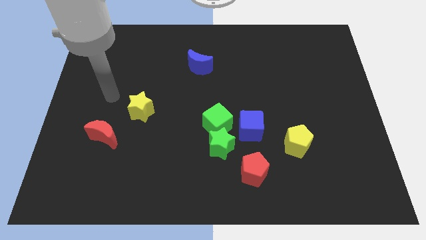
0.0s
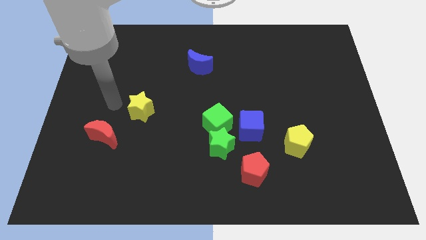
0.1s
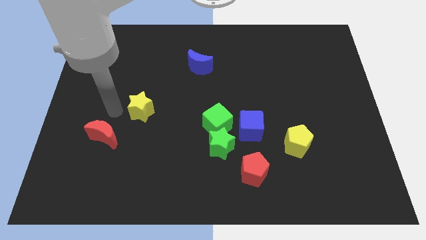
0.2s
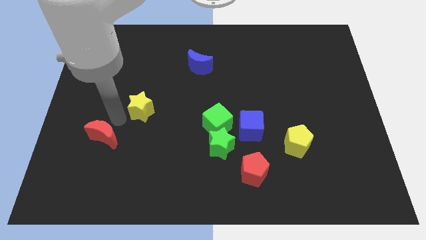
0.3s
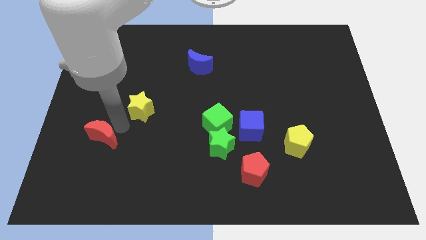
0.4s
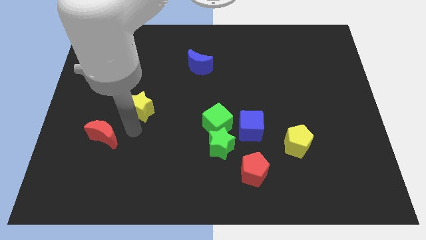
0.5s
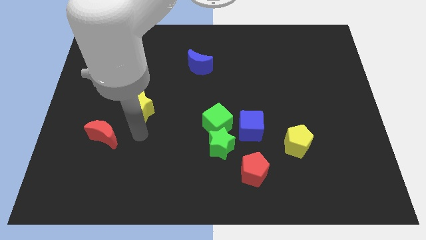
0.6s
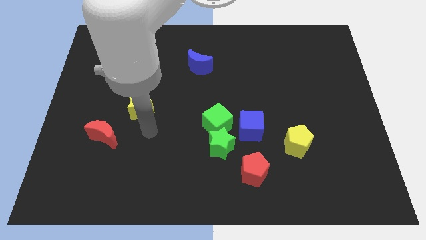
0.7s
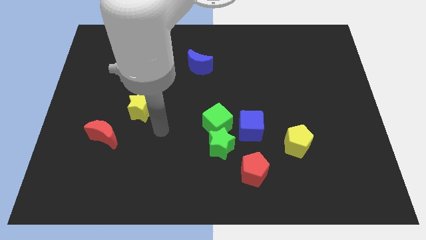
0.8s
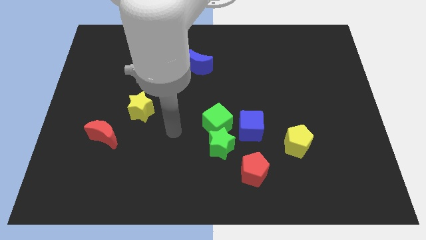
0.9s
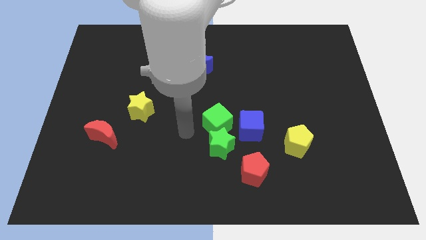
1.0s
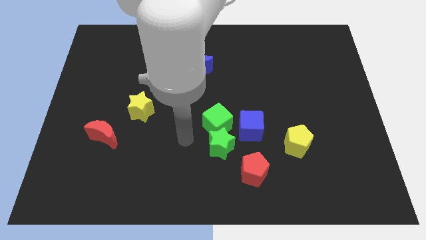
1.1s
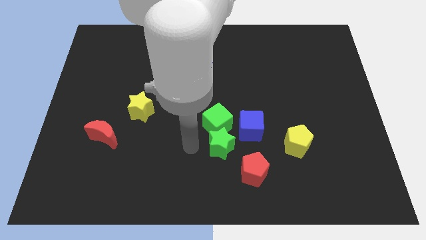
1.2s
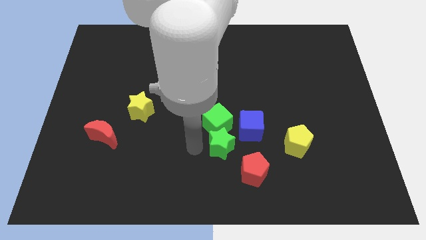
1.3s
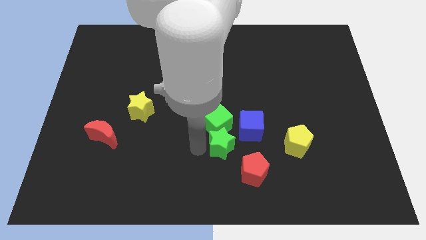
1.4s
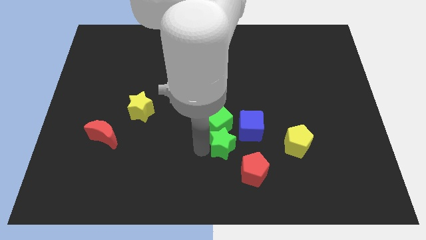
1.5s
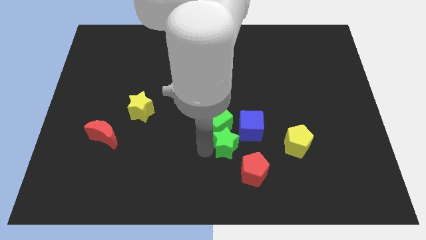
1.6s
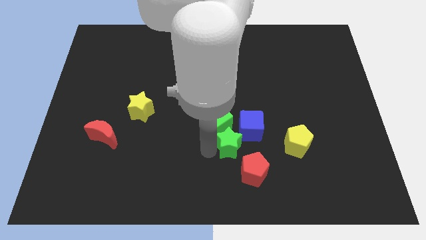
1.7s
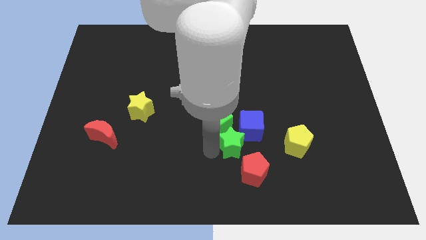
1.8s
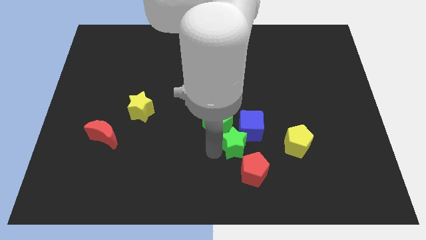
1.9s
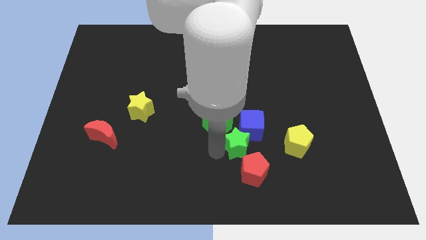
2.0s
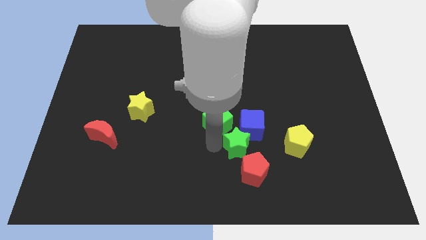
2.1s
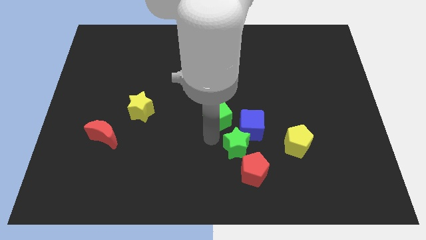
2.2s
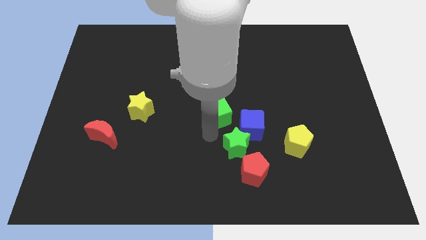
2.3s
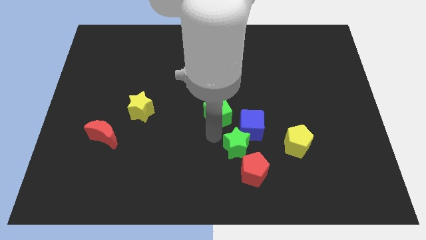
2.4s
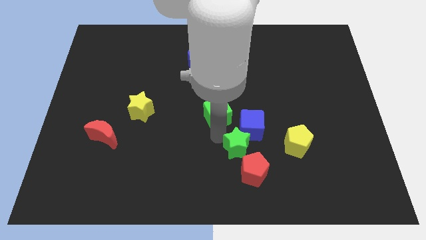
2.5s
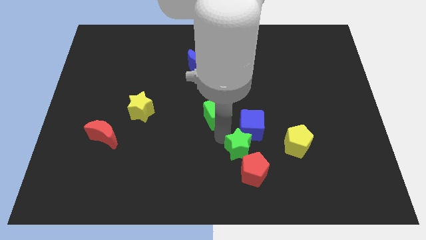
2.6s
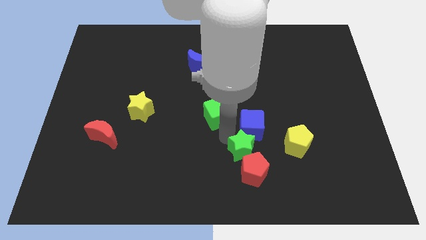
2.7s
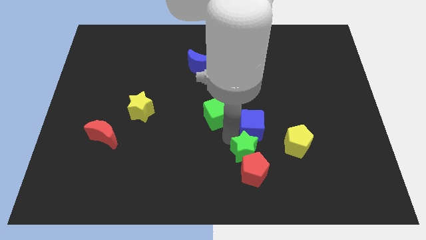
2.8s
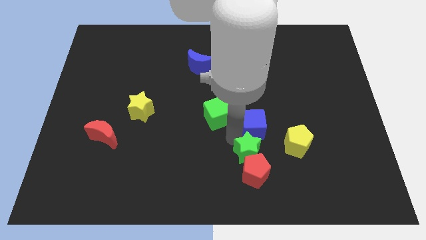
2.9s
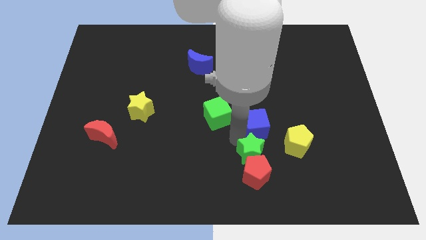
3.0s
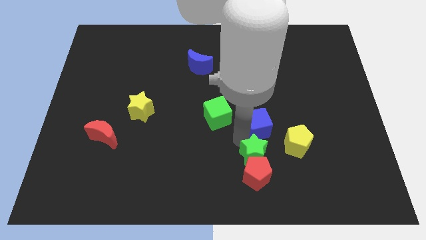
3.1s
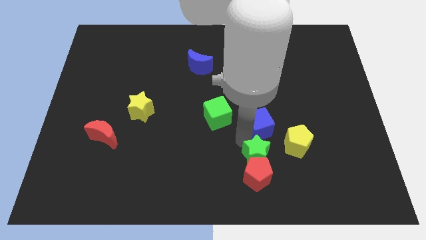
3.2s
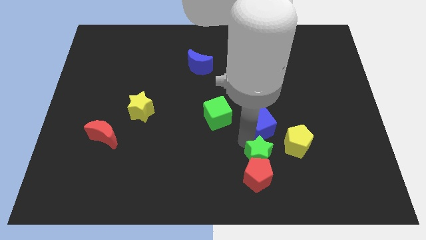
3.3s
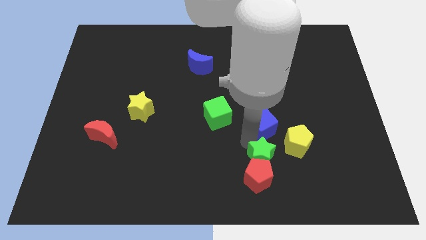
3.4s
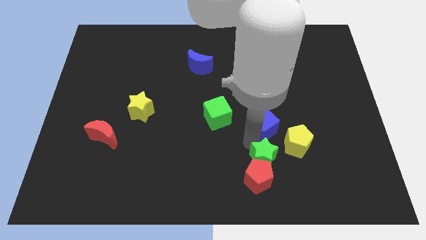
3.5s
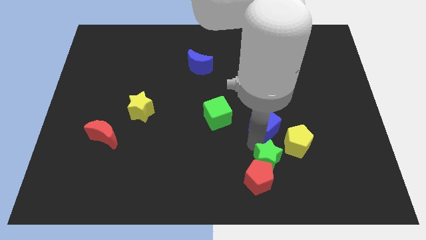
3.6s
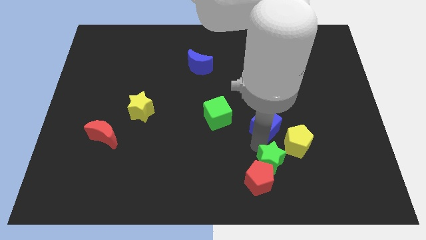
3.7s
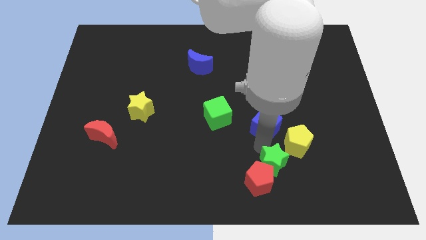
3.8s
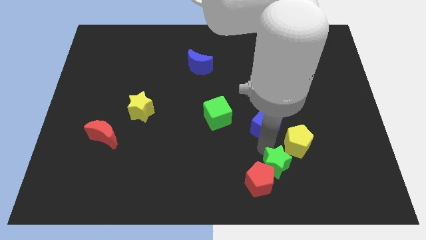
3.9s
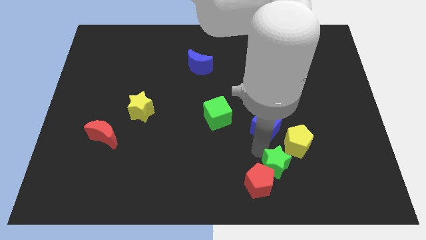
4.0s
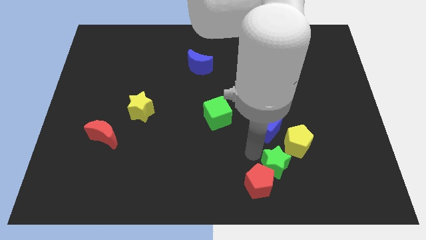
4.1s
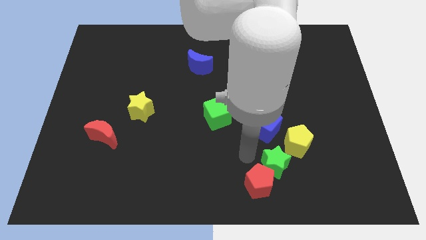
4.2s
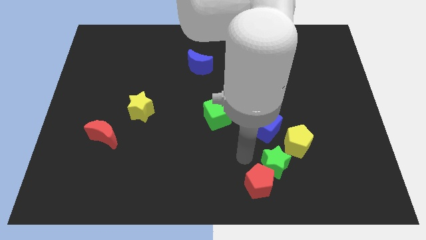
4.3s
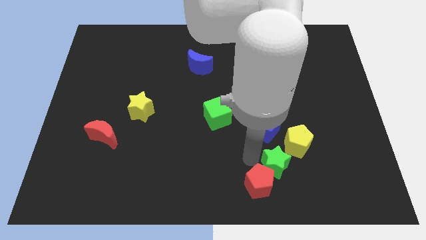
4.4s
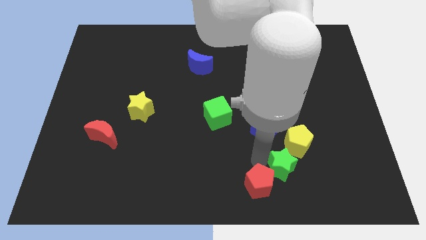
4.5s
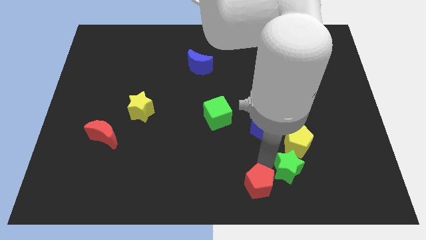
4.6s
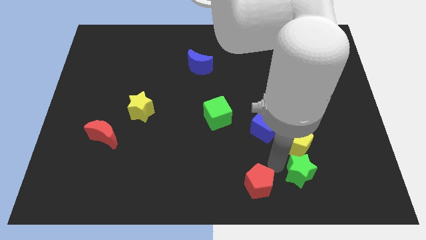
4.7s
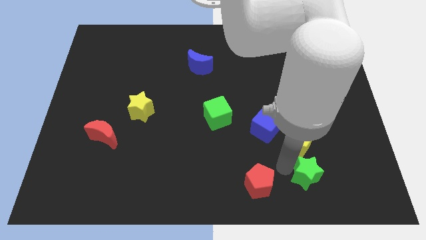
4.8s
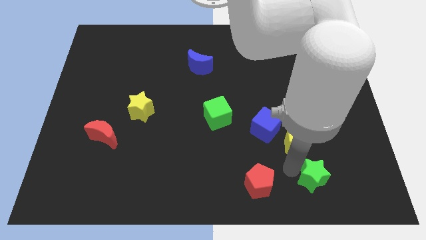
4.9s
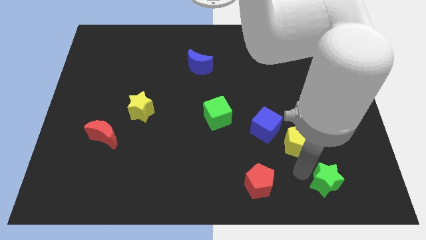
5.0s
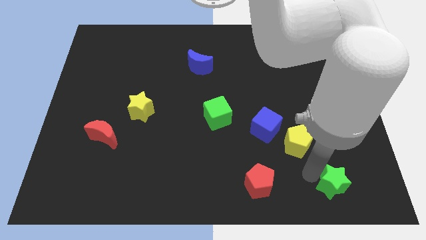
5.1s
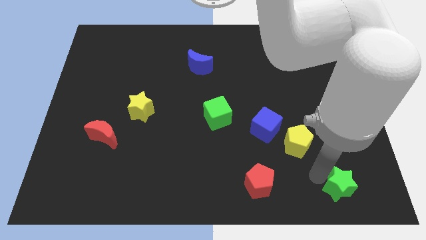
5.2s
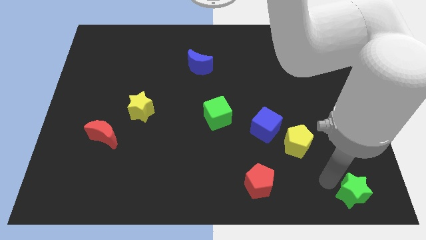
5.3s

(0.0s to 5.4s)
push the green star to the bottom right

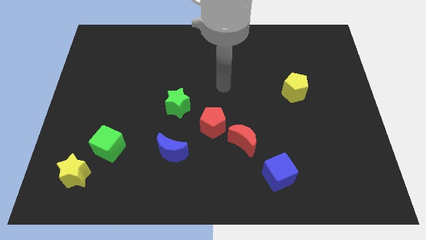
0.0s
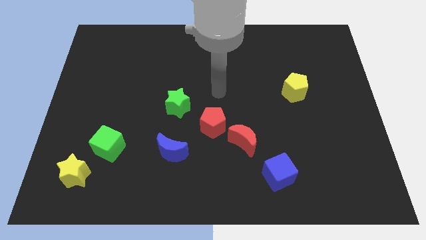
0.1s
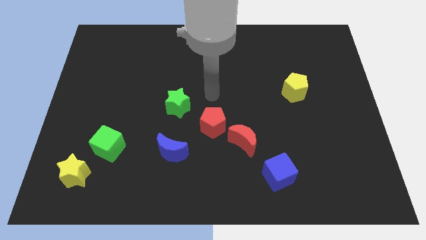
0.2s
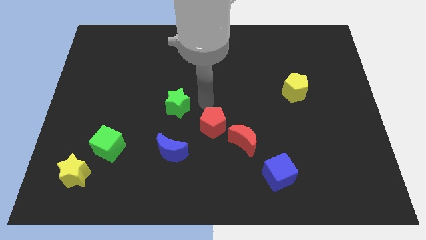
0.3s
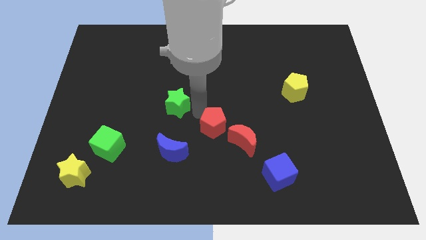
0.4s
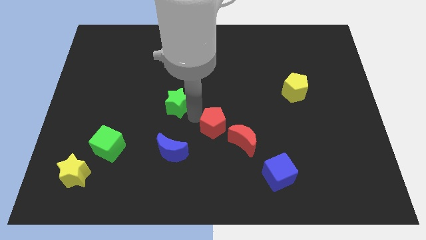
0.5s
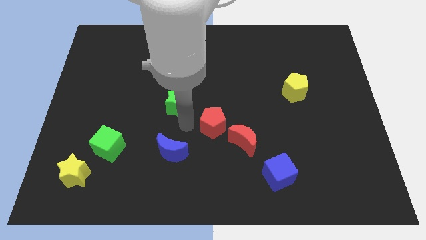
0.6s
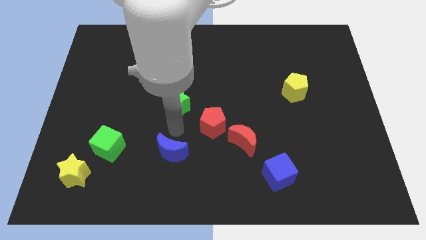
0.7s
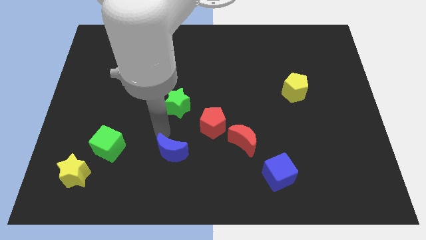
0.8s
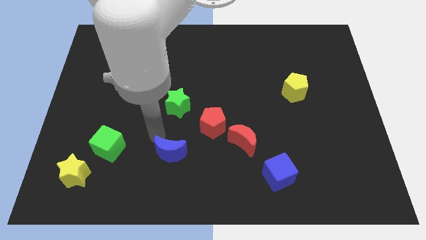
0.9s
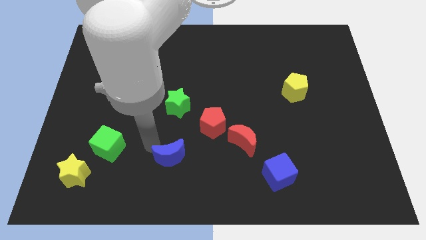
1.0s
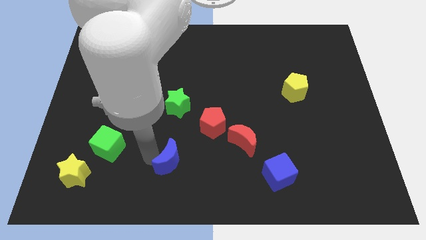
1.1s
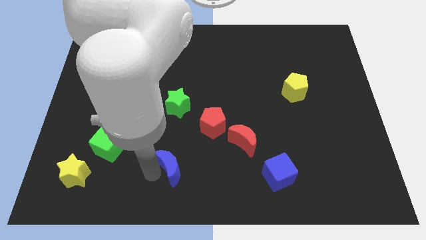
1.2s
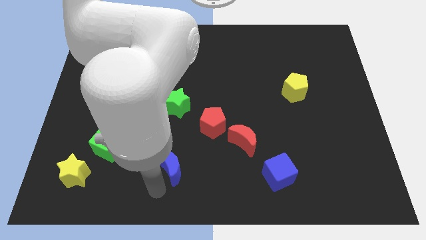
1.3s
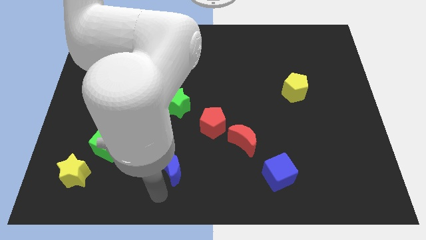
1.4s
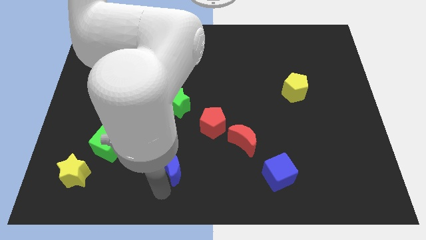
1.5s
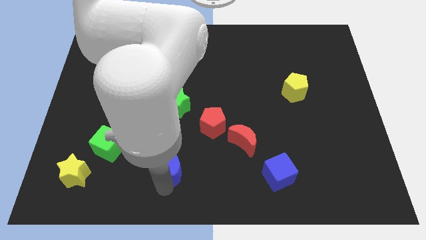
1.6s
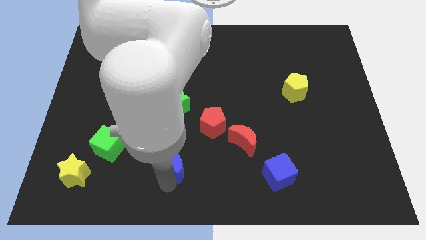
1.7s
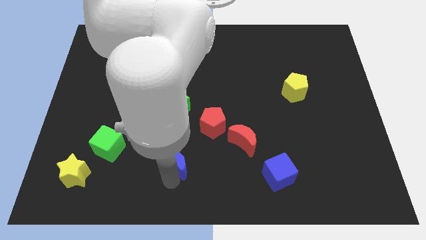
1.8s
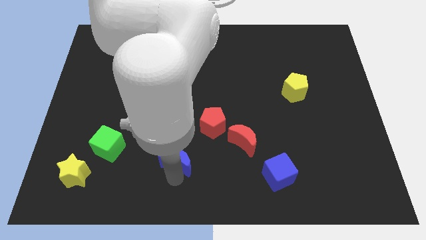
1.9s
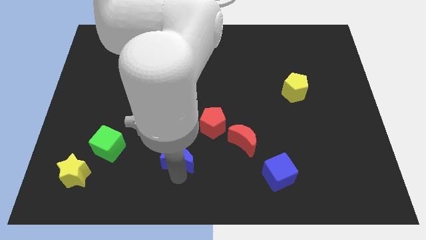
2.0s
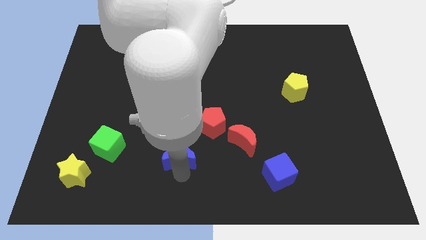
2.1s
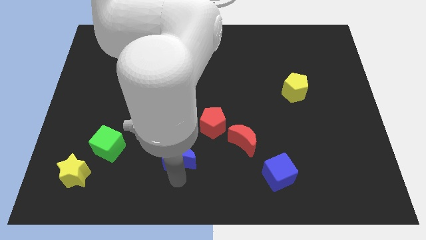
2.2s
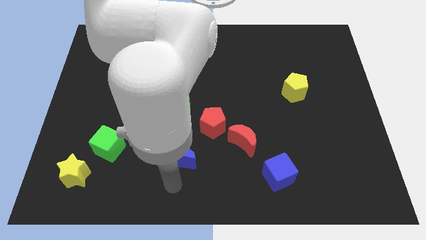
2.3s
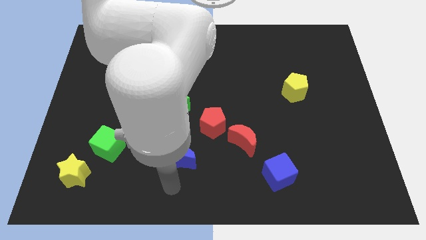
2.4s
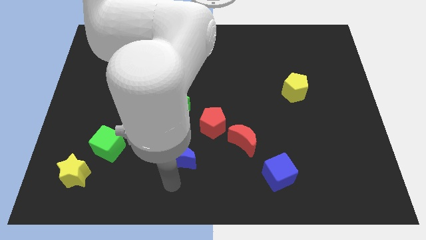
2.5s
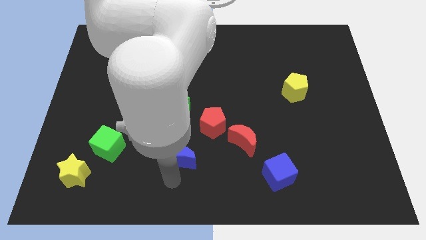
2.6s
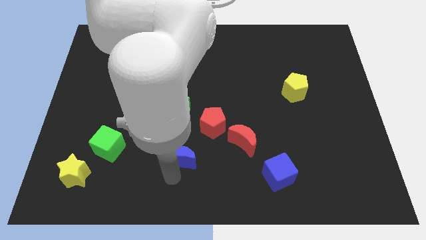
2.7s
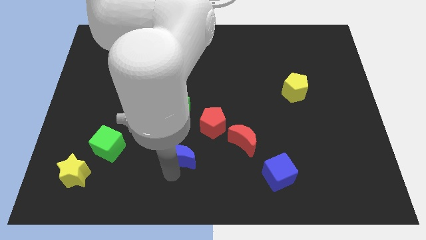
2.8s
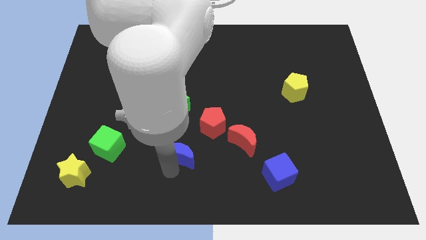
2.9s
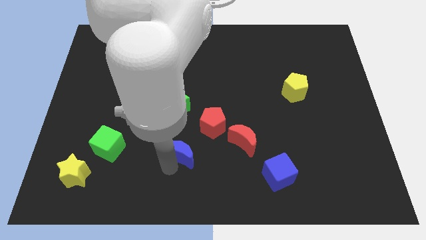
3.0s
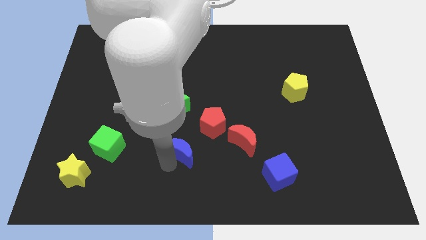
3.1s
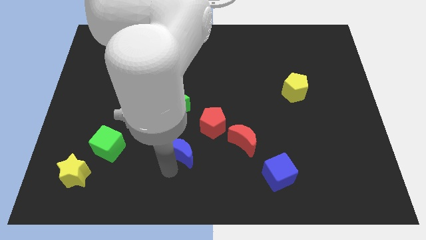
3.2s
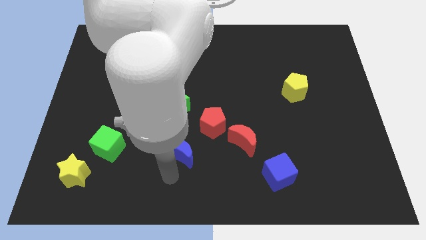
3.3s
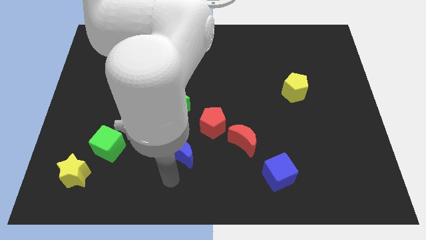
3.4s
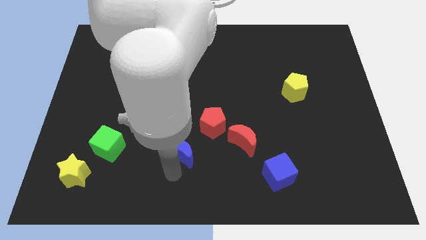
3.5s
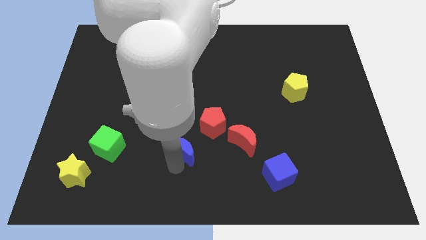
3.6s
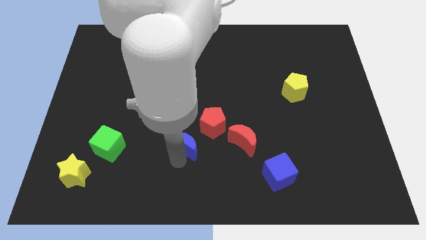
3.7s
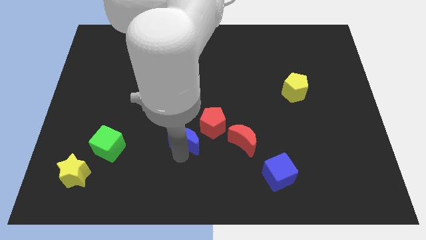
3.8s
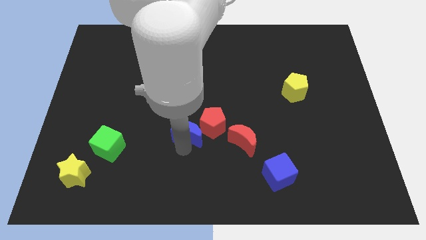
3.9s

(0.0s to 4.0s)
slide the blue moon to the center of the board
